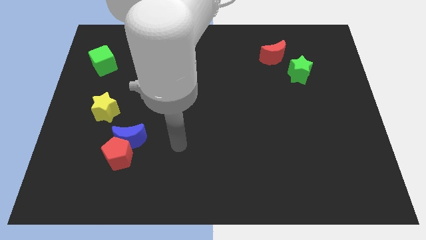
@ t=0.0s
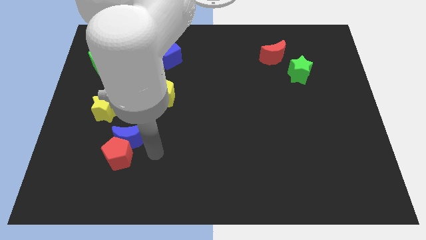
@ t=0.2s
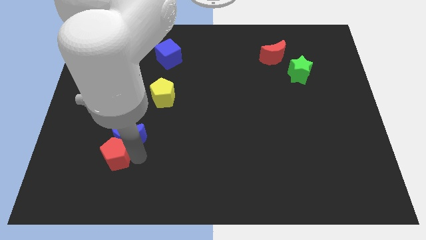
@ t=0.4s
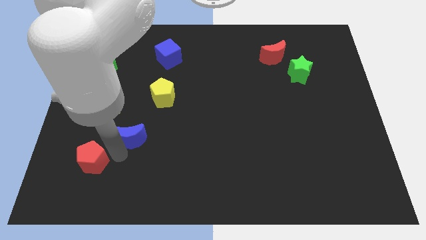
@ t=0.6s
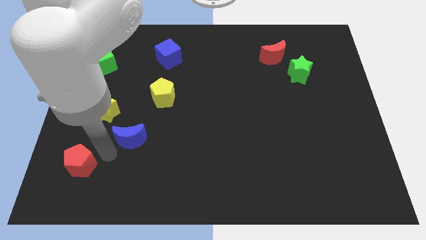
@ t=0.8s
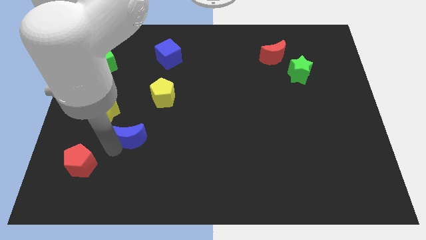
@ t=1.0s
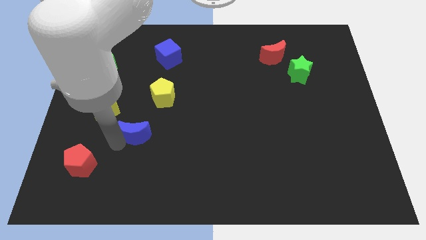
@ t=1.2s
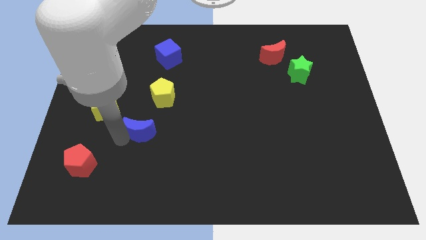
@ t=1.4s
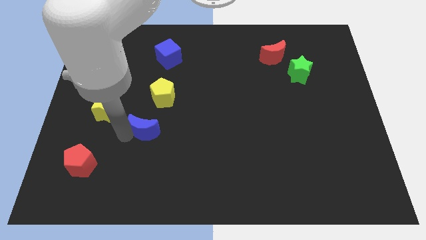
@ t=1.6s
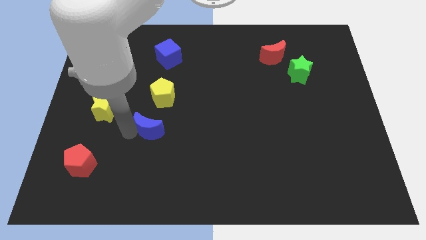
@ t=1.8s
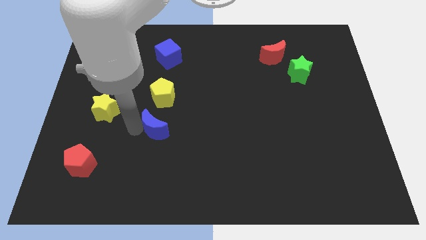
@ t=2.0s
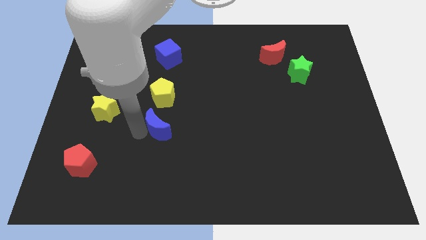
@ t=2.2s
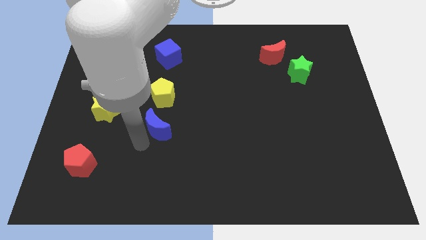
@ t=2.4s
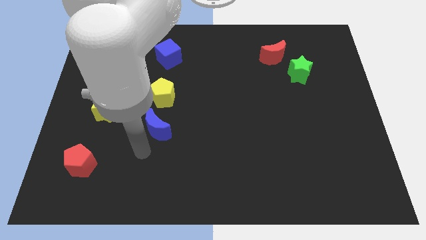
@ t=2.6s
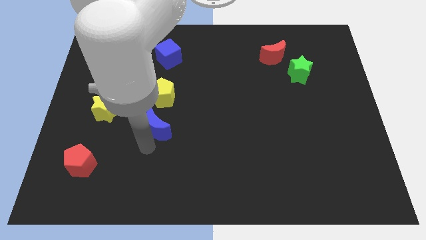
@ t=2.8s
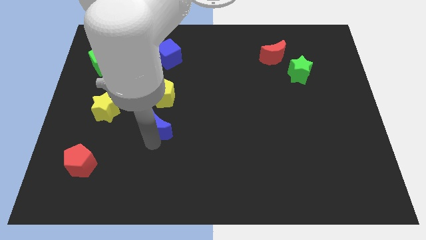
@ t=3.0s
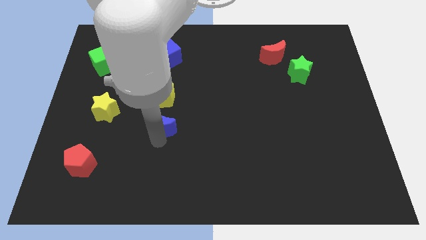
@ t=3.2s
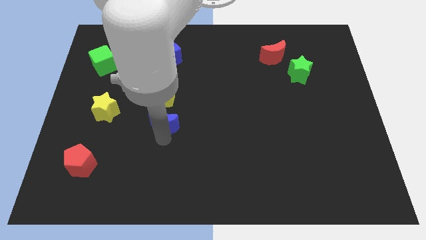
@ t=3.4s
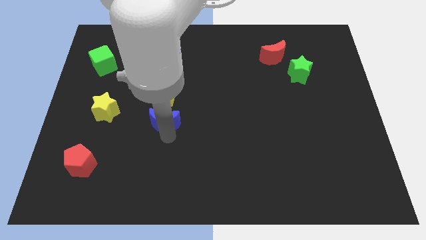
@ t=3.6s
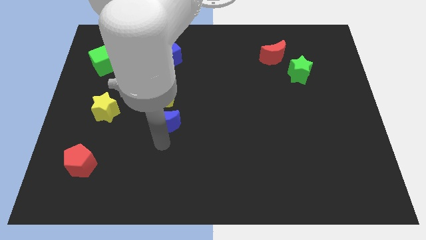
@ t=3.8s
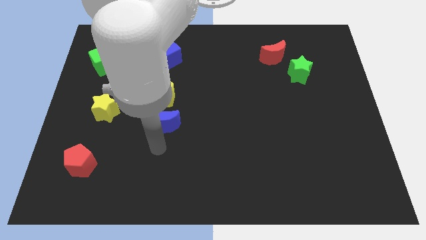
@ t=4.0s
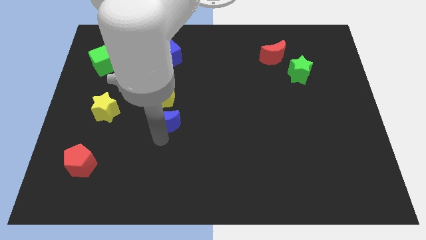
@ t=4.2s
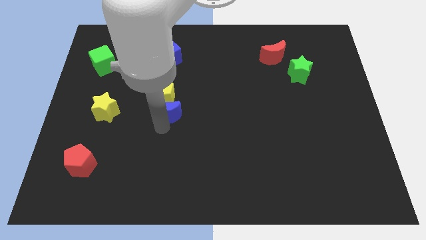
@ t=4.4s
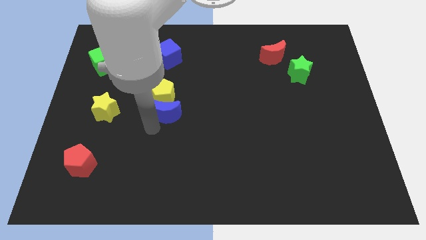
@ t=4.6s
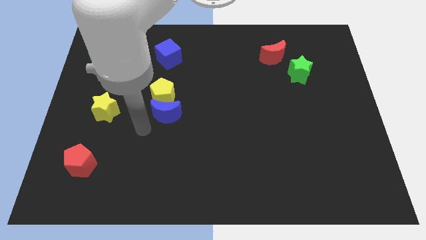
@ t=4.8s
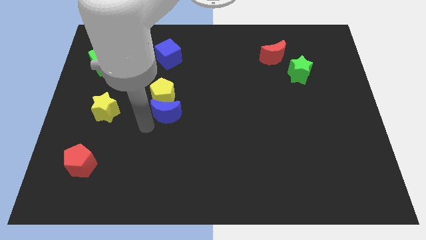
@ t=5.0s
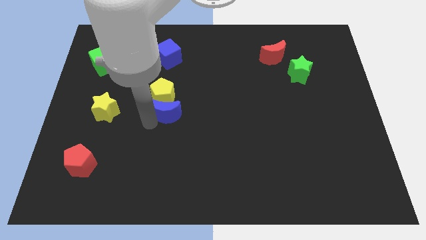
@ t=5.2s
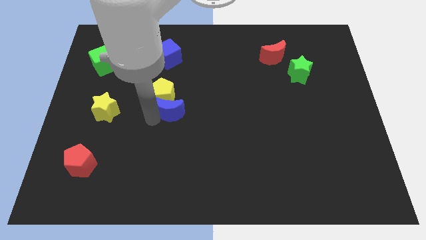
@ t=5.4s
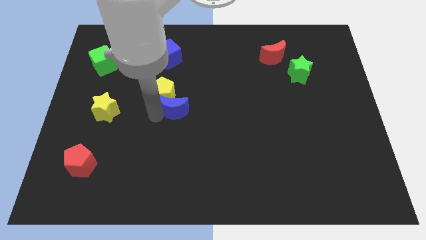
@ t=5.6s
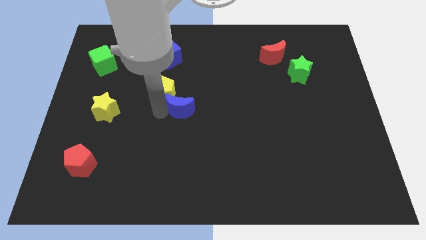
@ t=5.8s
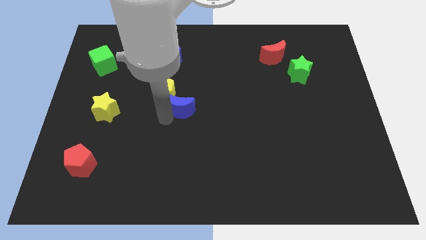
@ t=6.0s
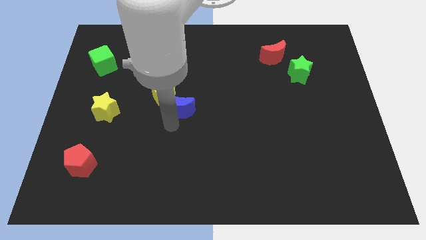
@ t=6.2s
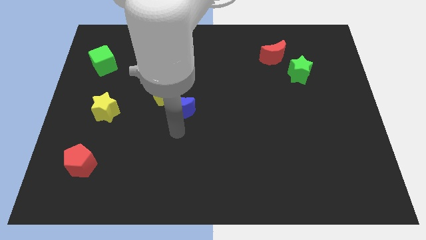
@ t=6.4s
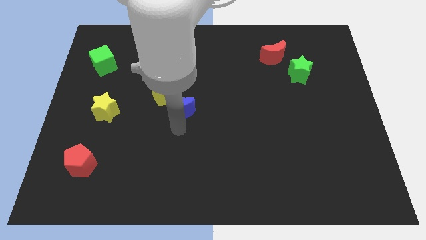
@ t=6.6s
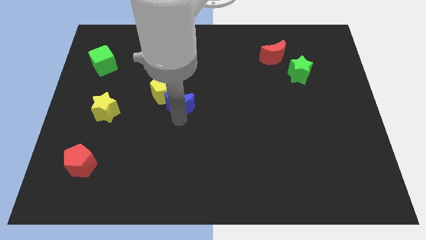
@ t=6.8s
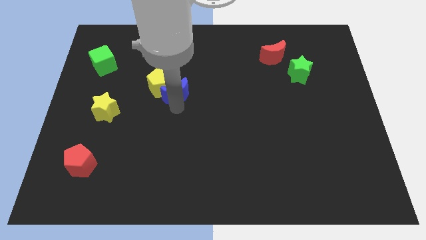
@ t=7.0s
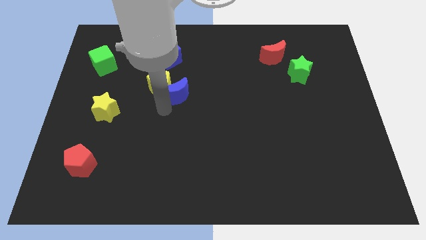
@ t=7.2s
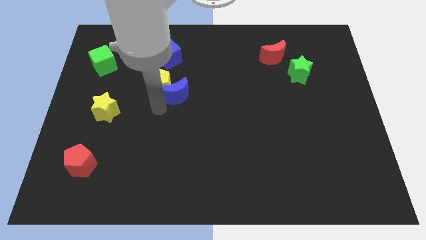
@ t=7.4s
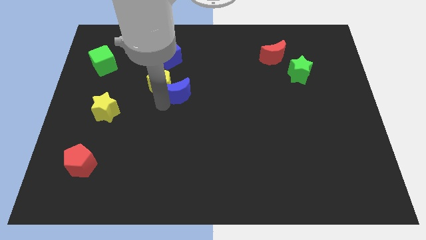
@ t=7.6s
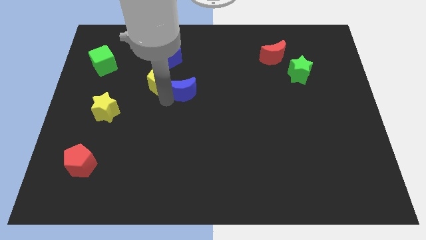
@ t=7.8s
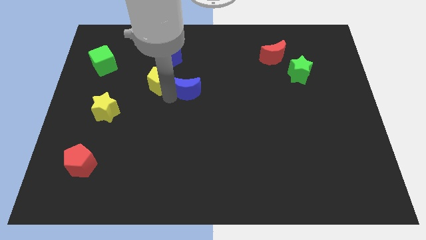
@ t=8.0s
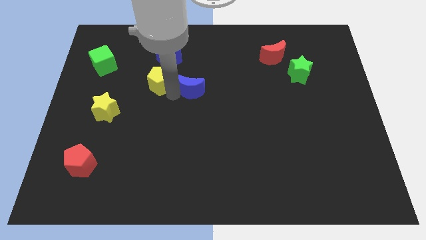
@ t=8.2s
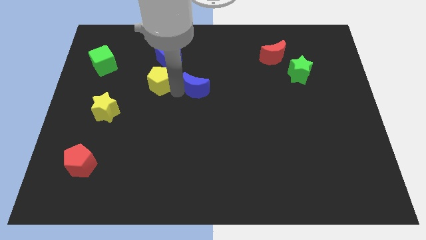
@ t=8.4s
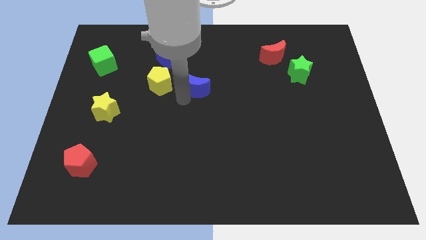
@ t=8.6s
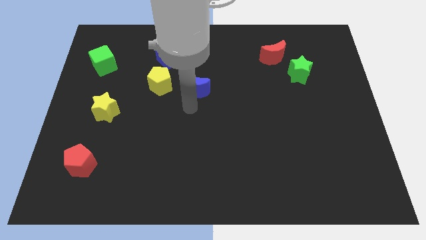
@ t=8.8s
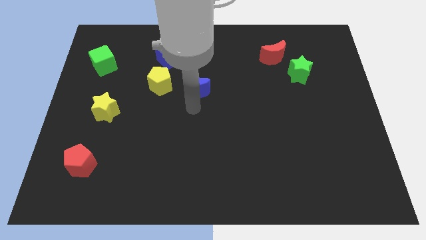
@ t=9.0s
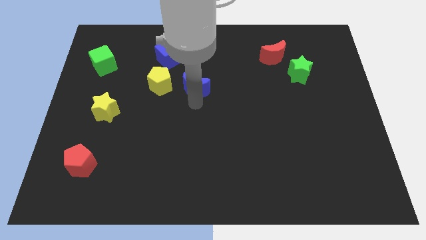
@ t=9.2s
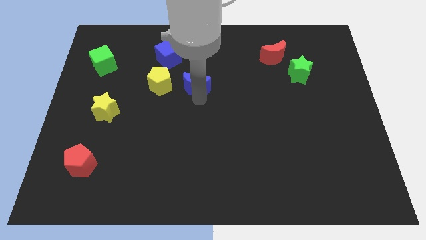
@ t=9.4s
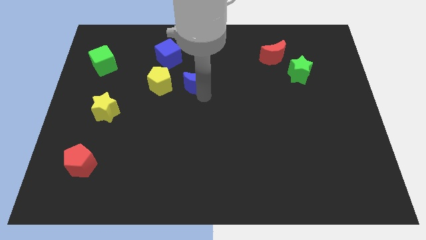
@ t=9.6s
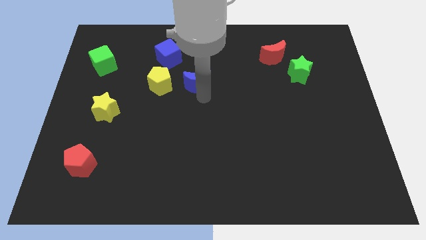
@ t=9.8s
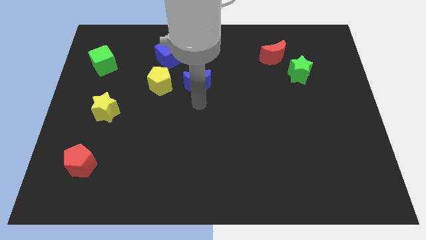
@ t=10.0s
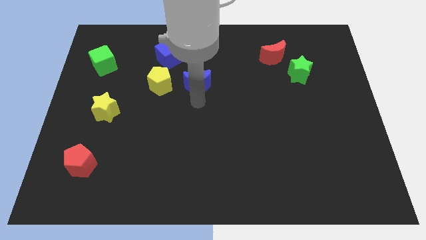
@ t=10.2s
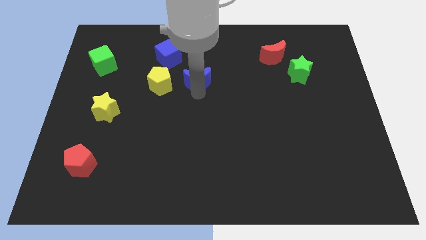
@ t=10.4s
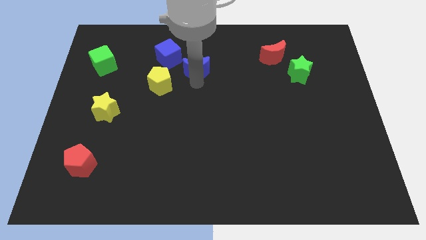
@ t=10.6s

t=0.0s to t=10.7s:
move the blue moon just right of the blue cube
